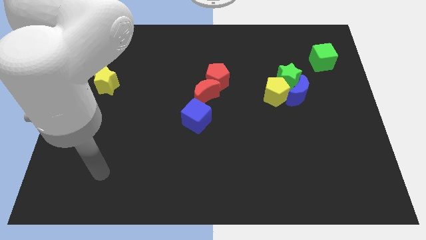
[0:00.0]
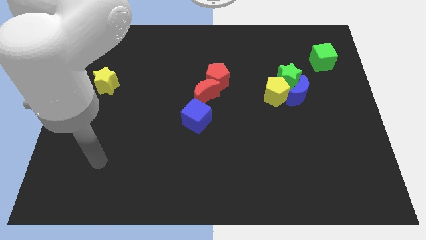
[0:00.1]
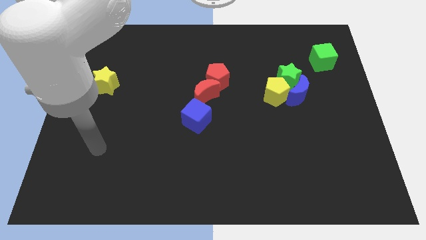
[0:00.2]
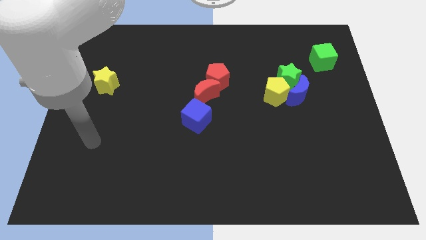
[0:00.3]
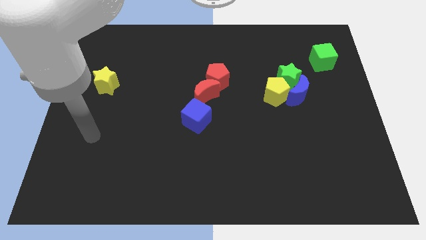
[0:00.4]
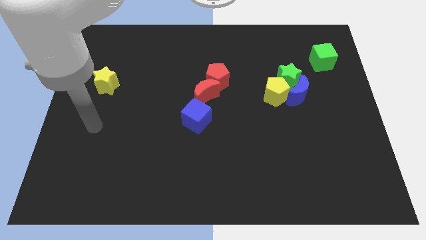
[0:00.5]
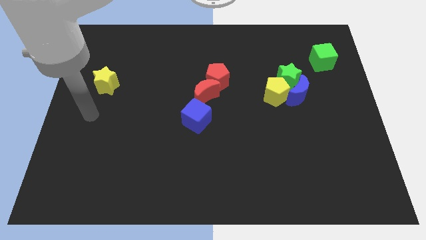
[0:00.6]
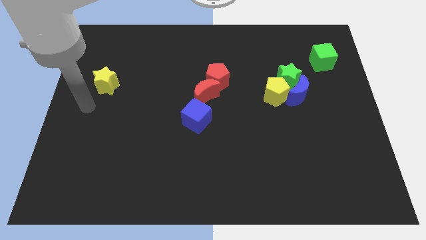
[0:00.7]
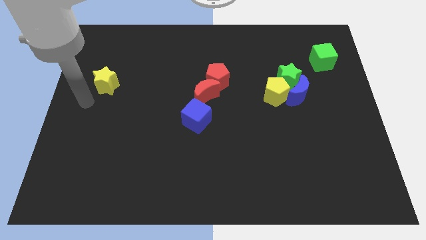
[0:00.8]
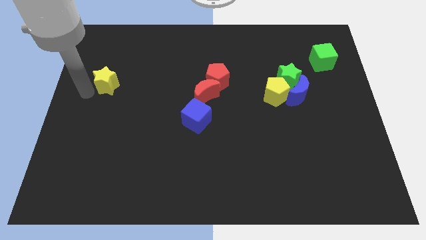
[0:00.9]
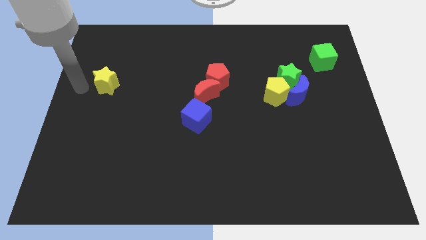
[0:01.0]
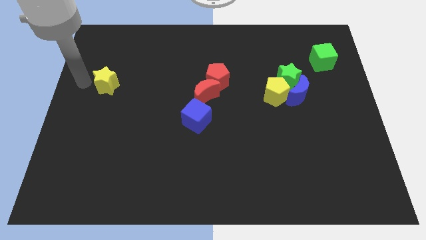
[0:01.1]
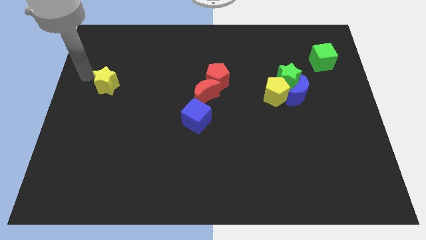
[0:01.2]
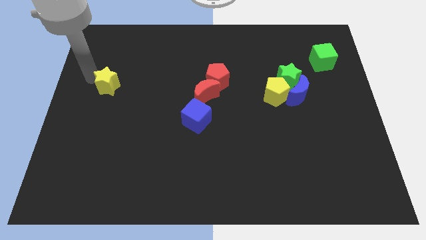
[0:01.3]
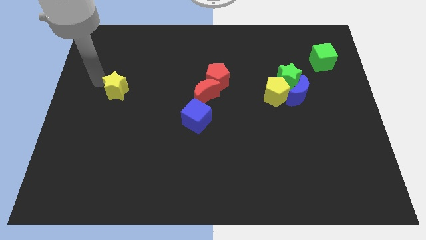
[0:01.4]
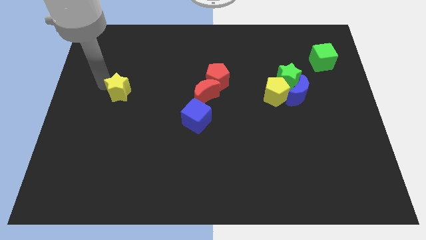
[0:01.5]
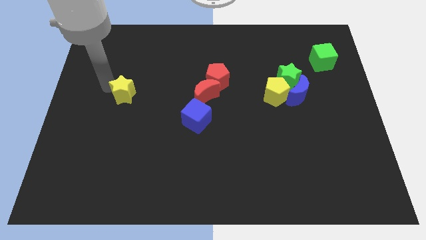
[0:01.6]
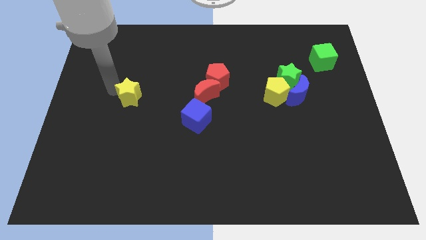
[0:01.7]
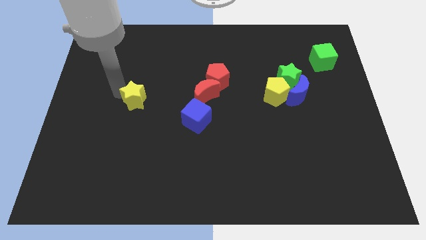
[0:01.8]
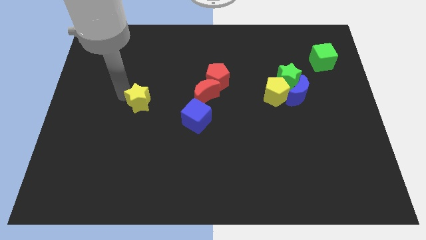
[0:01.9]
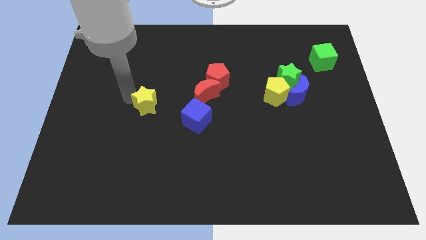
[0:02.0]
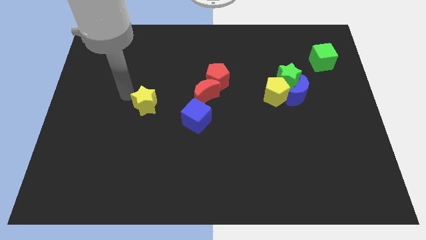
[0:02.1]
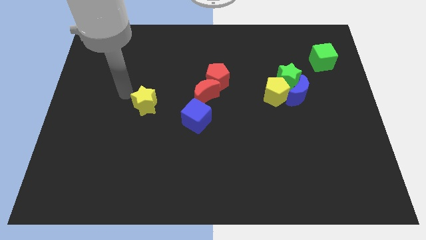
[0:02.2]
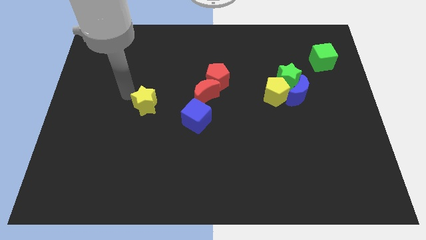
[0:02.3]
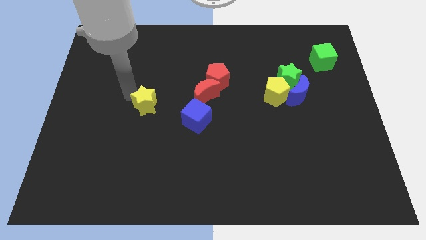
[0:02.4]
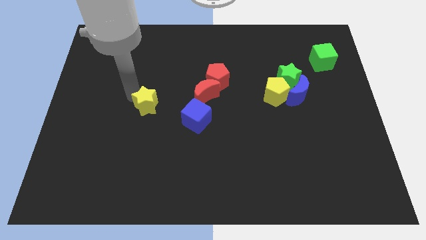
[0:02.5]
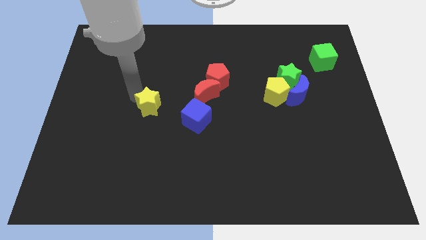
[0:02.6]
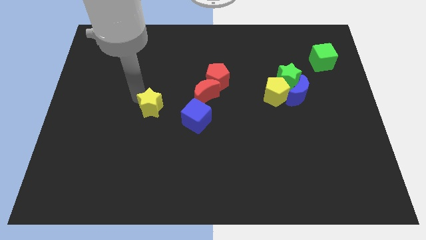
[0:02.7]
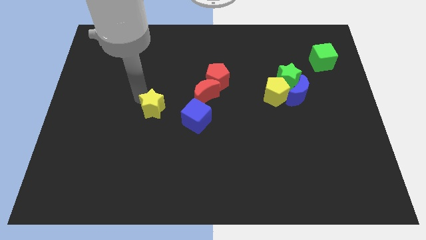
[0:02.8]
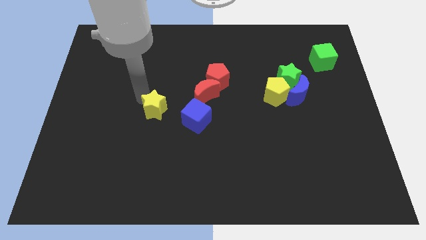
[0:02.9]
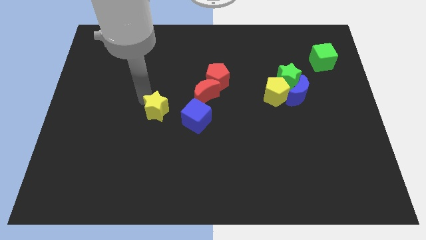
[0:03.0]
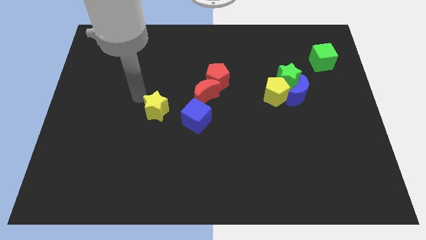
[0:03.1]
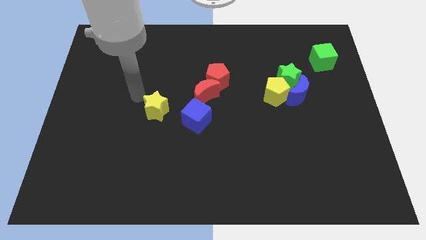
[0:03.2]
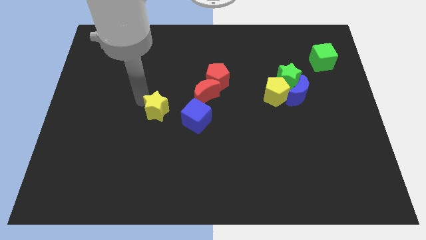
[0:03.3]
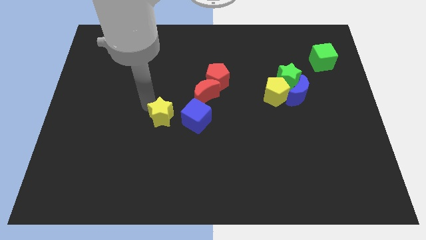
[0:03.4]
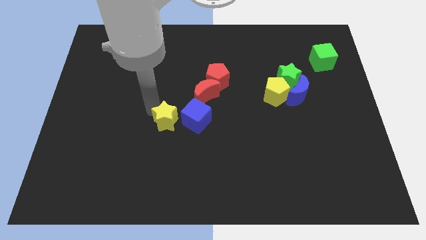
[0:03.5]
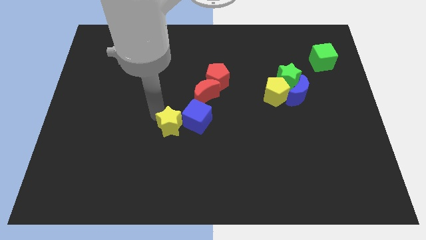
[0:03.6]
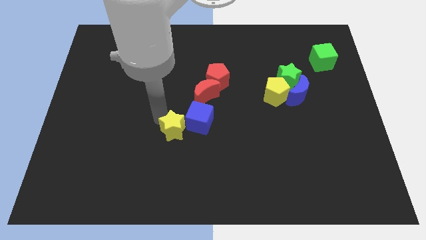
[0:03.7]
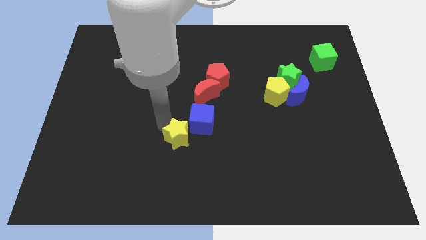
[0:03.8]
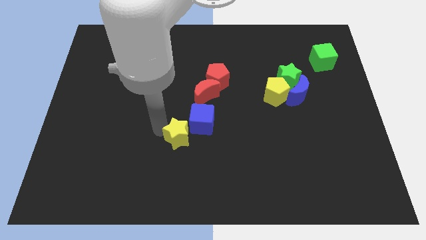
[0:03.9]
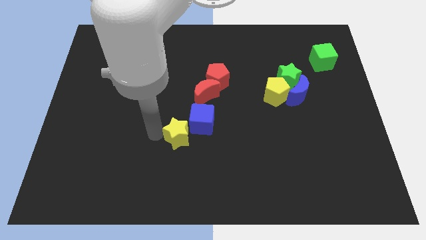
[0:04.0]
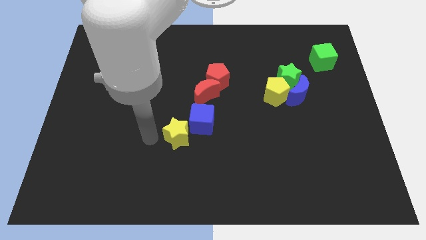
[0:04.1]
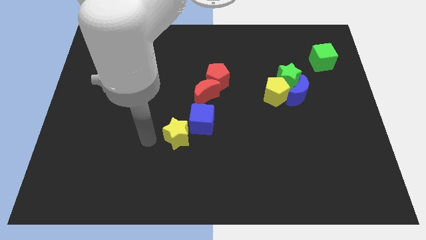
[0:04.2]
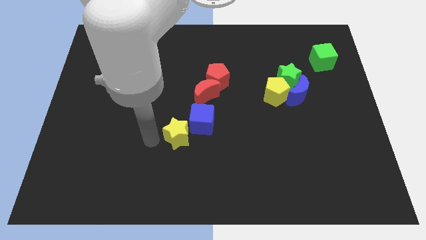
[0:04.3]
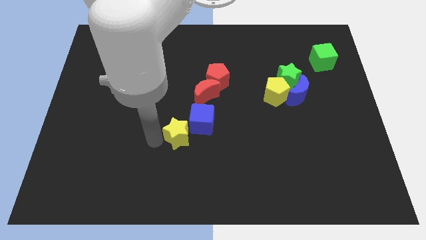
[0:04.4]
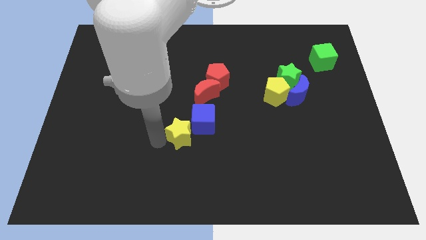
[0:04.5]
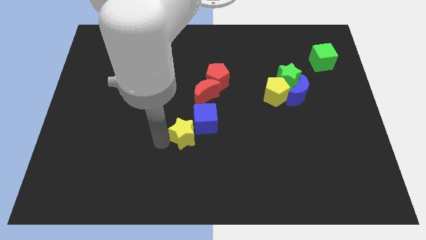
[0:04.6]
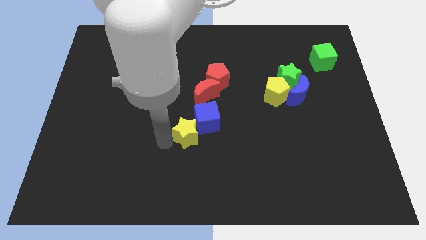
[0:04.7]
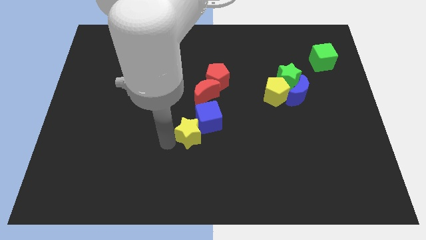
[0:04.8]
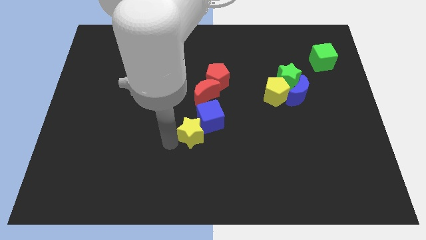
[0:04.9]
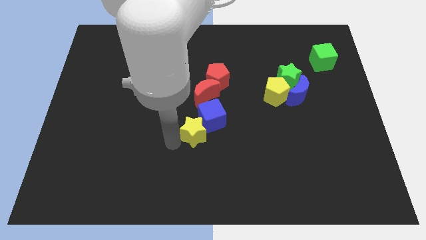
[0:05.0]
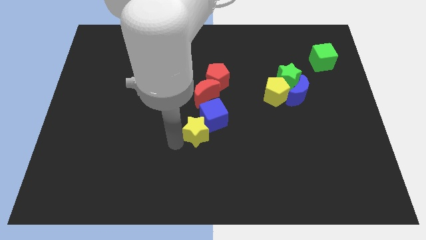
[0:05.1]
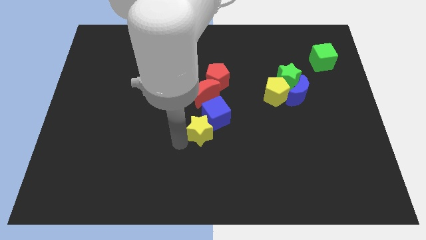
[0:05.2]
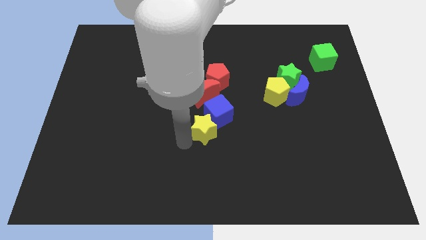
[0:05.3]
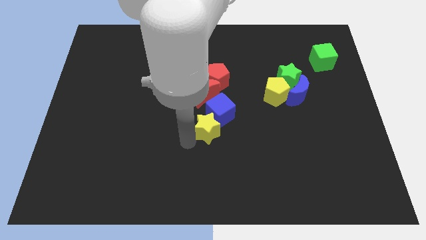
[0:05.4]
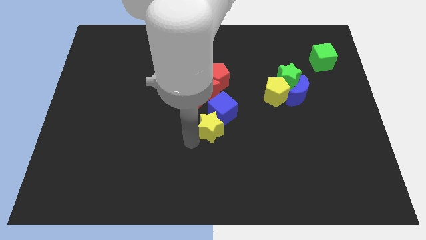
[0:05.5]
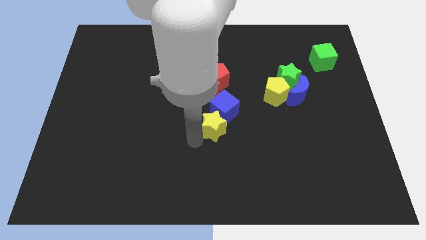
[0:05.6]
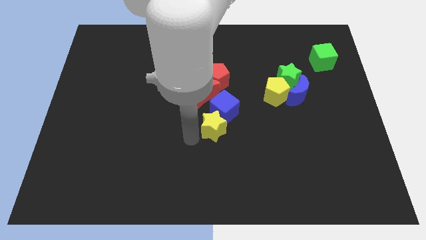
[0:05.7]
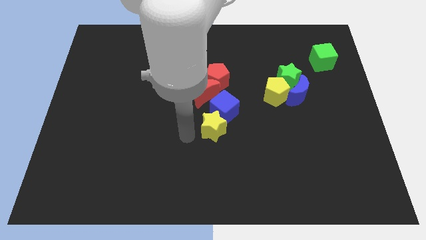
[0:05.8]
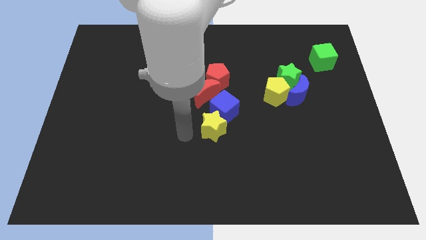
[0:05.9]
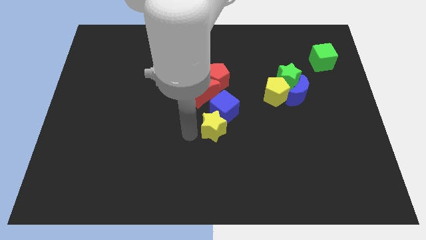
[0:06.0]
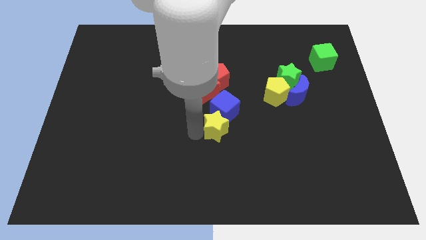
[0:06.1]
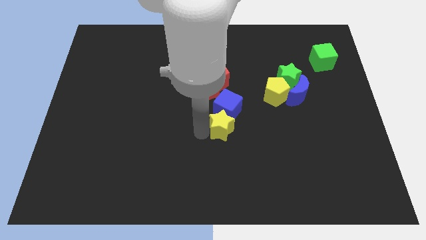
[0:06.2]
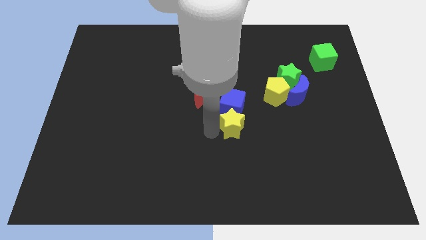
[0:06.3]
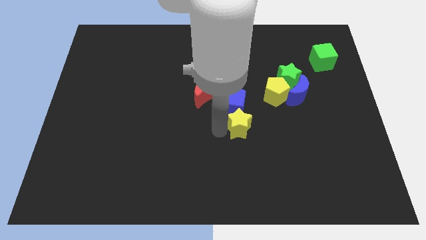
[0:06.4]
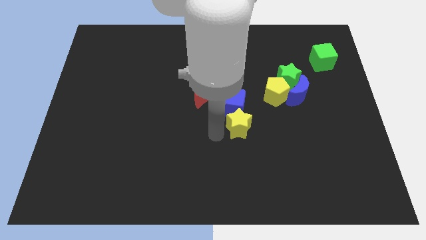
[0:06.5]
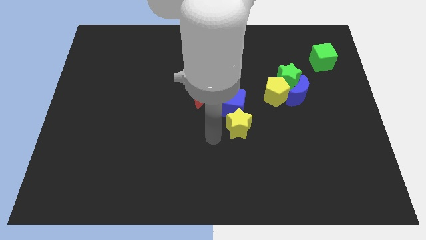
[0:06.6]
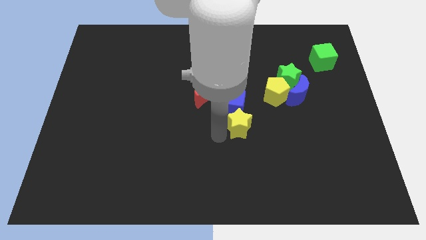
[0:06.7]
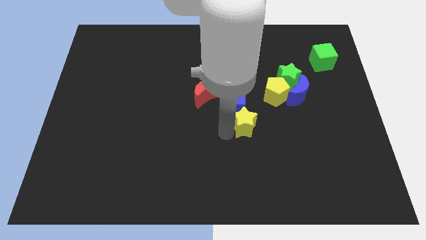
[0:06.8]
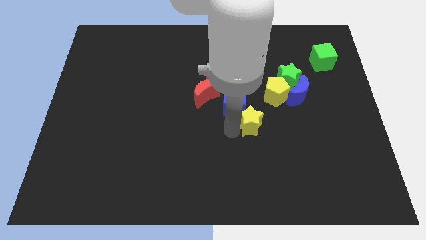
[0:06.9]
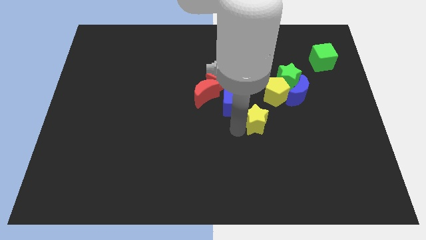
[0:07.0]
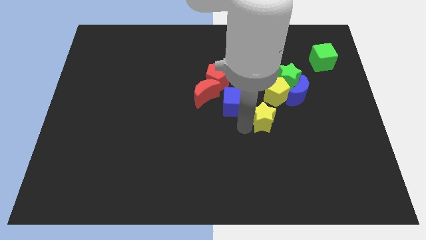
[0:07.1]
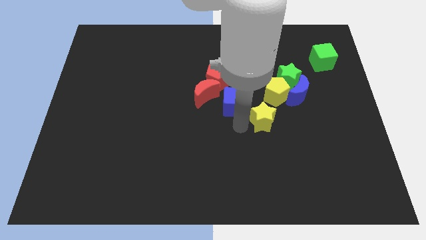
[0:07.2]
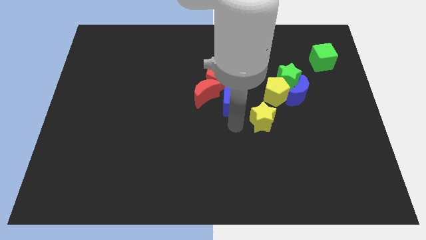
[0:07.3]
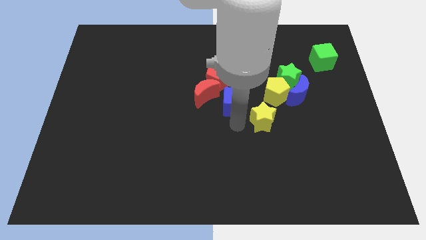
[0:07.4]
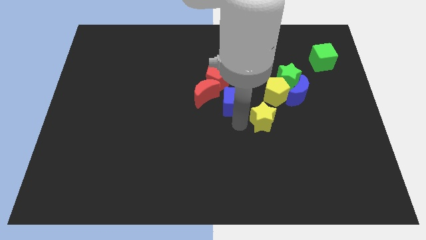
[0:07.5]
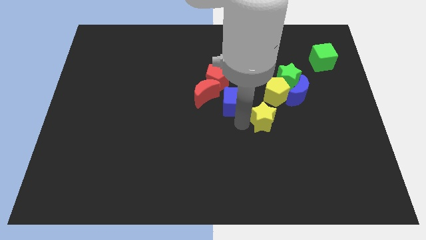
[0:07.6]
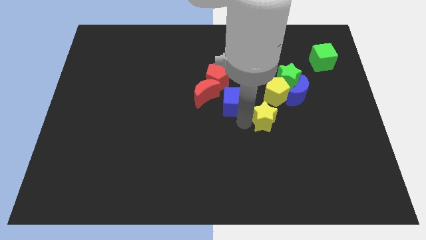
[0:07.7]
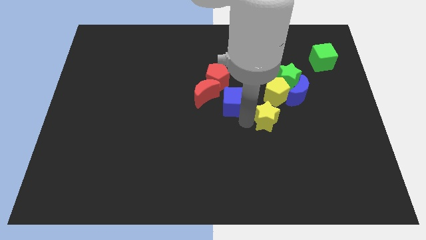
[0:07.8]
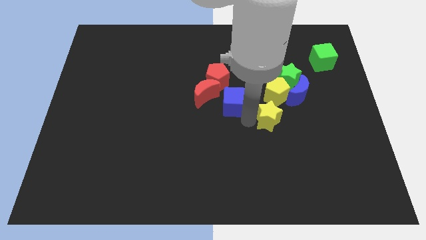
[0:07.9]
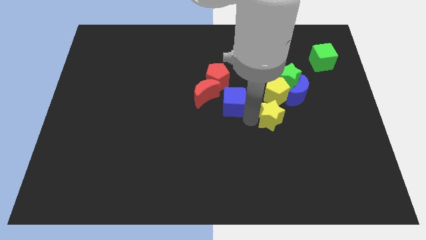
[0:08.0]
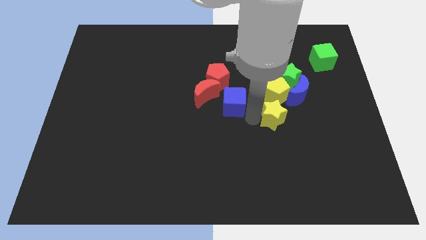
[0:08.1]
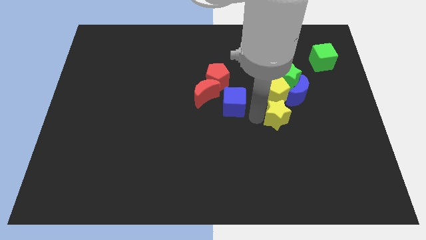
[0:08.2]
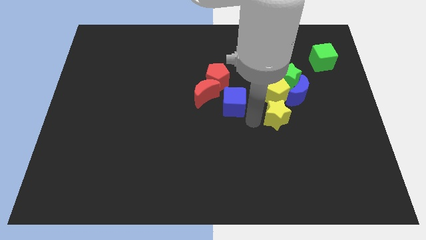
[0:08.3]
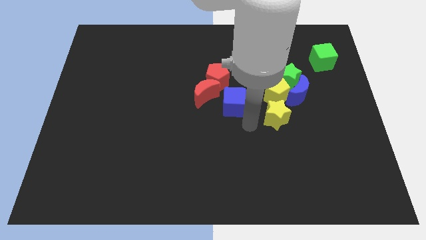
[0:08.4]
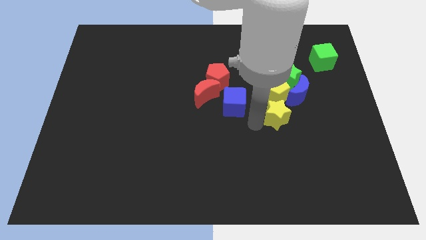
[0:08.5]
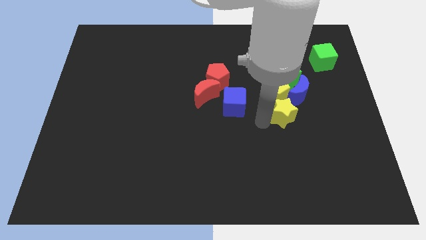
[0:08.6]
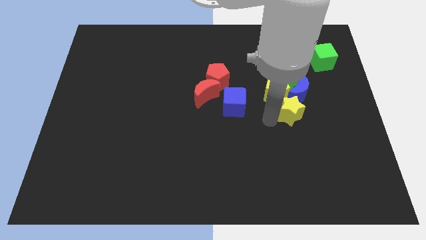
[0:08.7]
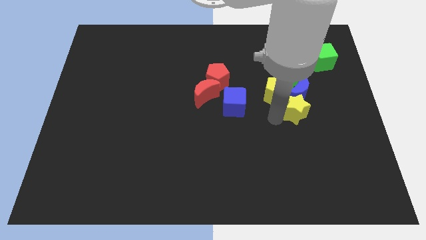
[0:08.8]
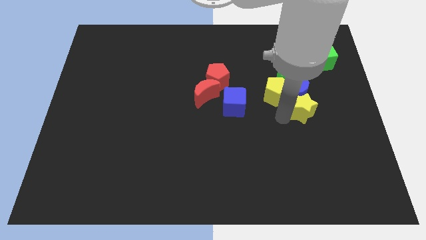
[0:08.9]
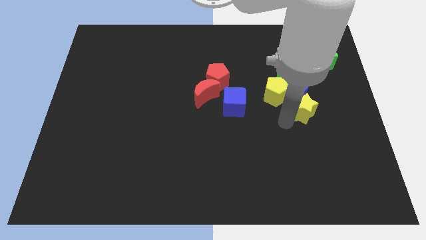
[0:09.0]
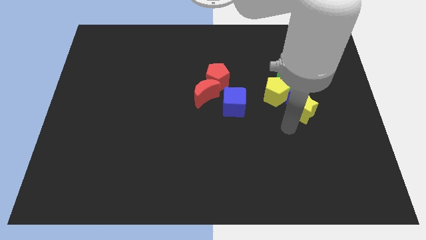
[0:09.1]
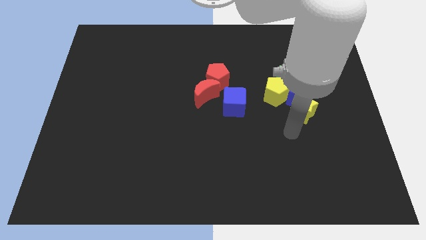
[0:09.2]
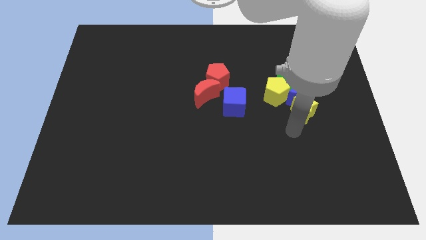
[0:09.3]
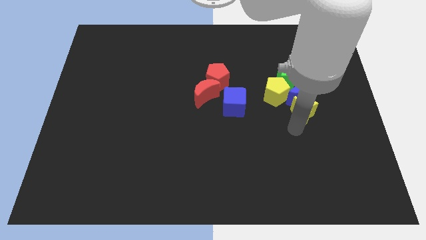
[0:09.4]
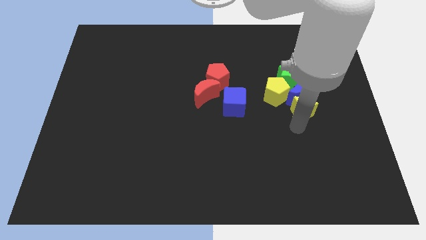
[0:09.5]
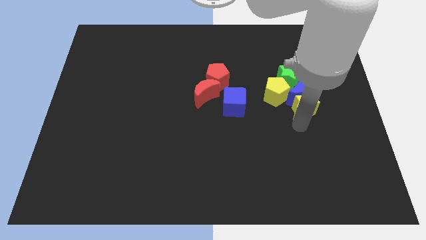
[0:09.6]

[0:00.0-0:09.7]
put the yellow star to the bottom right side of the green star
